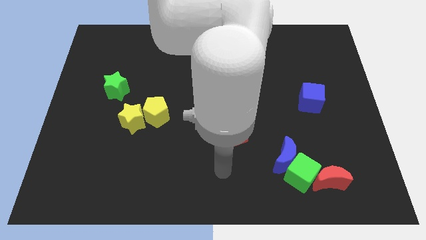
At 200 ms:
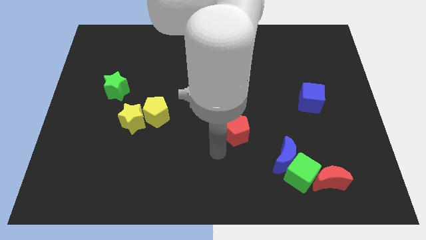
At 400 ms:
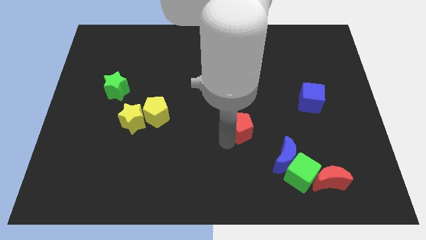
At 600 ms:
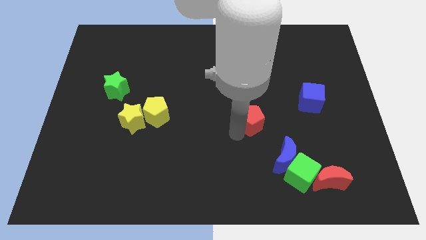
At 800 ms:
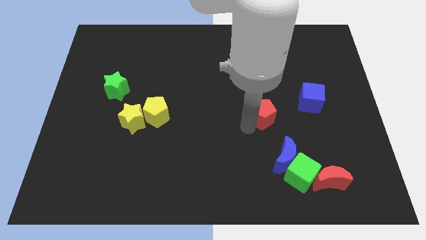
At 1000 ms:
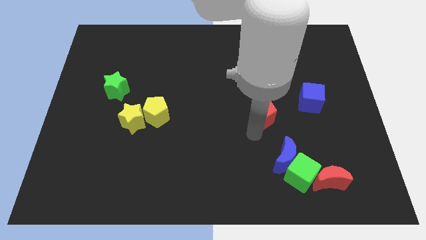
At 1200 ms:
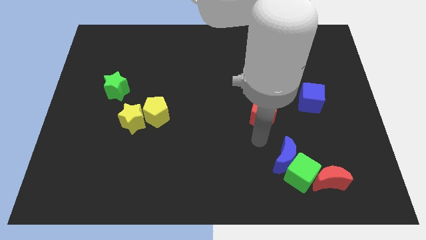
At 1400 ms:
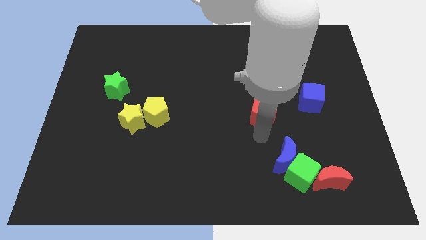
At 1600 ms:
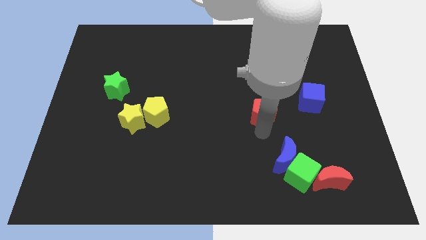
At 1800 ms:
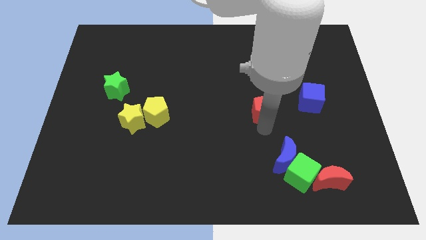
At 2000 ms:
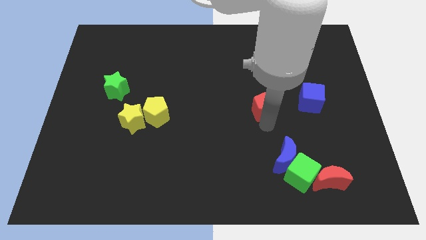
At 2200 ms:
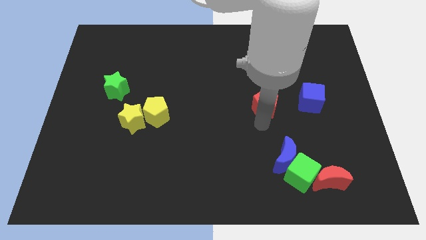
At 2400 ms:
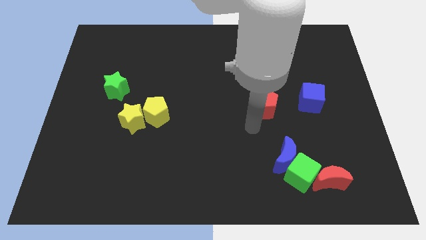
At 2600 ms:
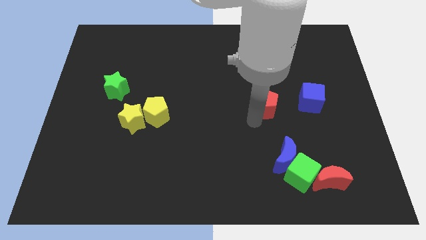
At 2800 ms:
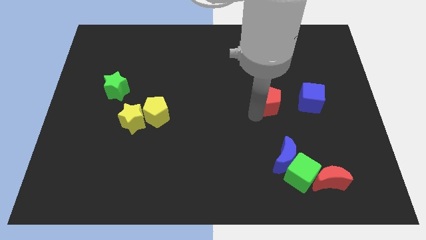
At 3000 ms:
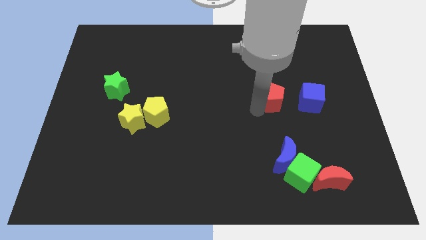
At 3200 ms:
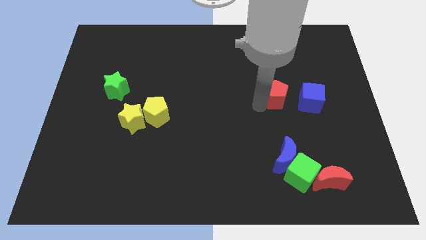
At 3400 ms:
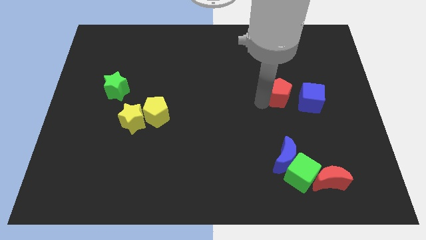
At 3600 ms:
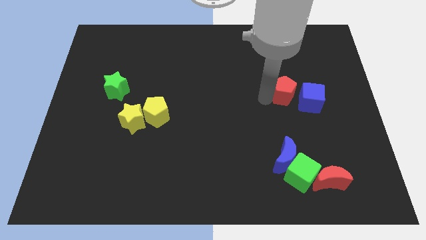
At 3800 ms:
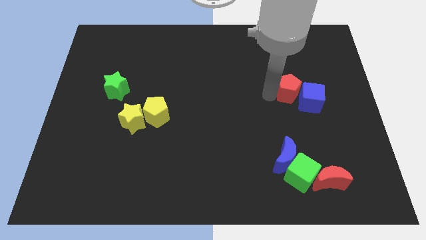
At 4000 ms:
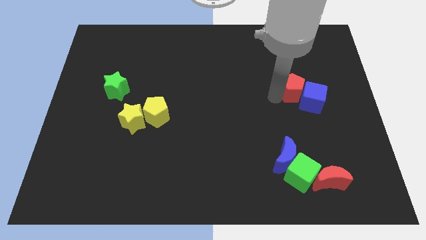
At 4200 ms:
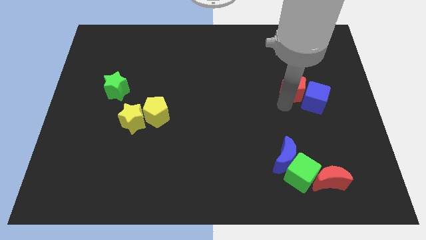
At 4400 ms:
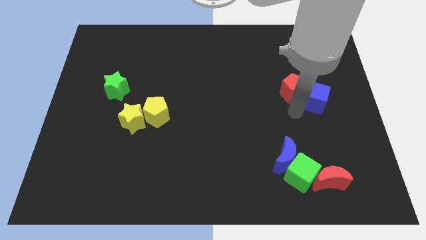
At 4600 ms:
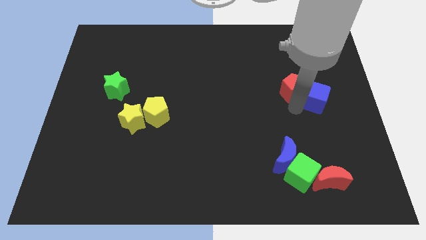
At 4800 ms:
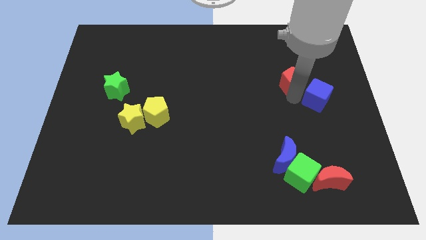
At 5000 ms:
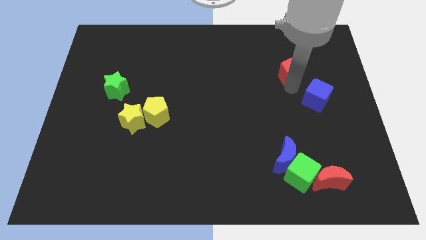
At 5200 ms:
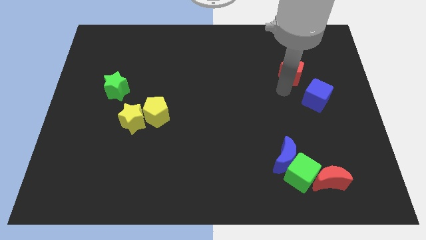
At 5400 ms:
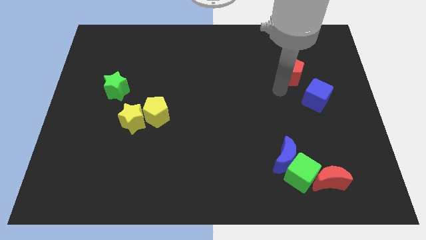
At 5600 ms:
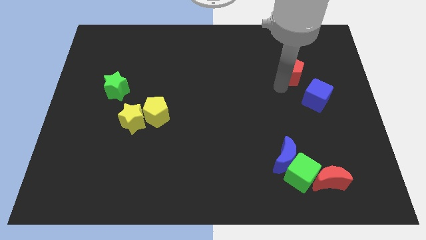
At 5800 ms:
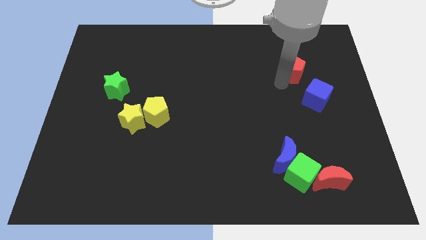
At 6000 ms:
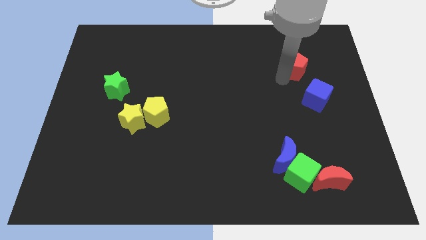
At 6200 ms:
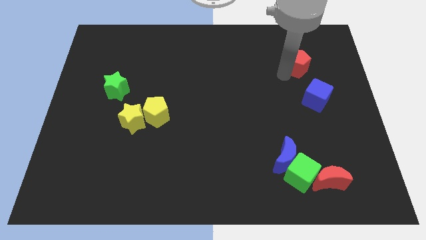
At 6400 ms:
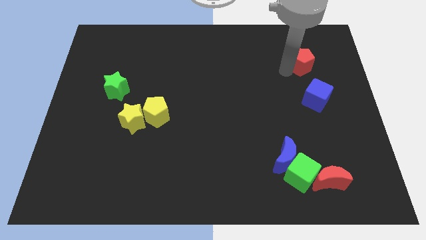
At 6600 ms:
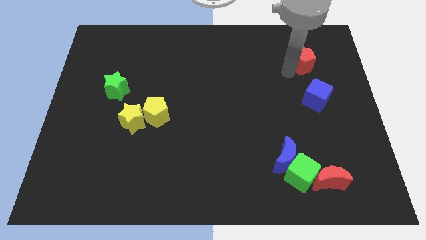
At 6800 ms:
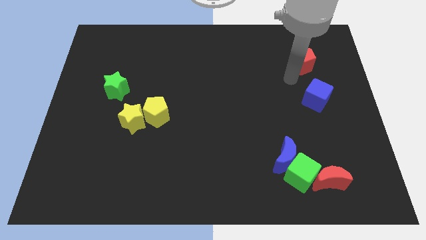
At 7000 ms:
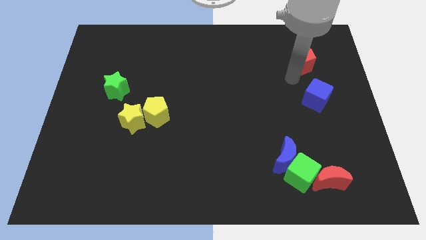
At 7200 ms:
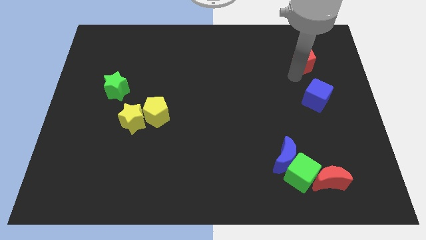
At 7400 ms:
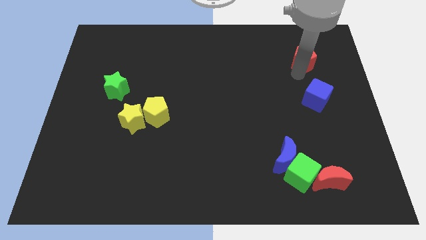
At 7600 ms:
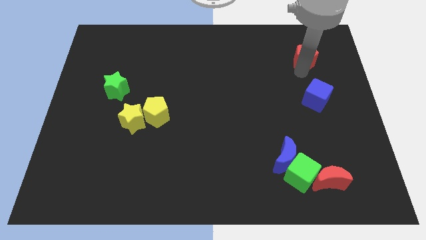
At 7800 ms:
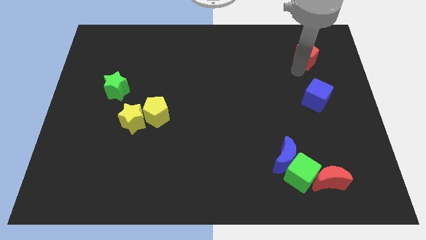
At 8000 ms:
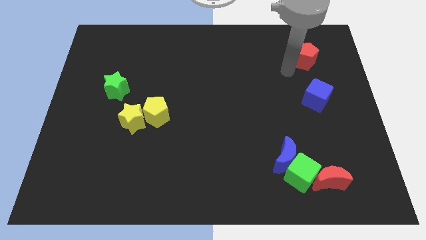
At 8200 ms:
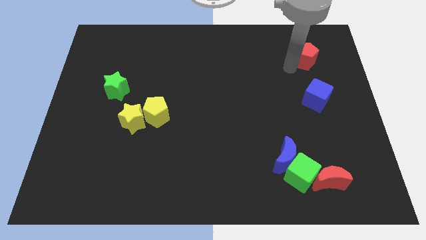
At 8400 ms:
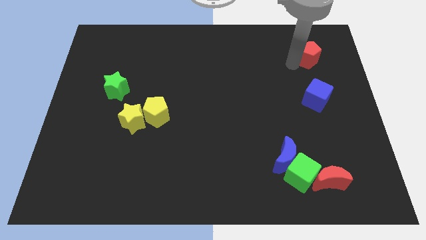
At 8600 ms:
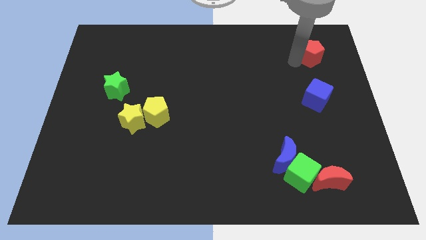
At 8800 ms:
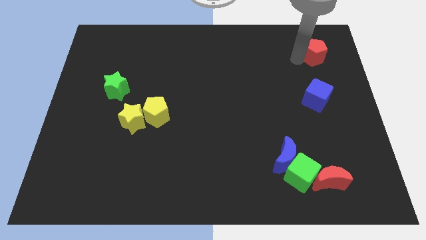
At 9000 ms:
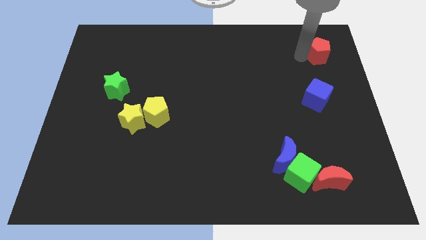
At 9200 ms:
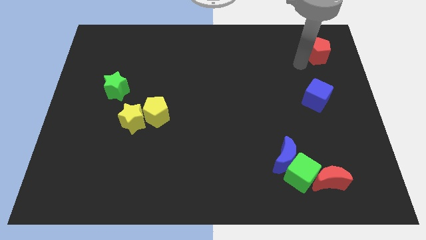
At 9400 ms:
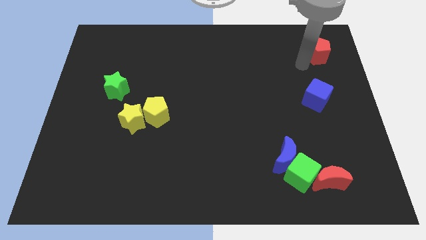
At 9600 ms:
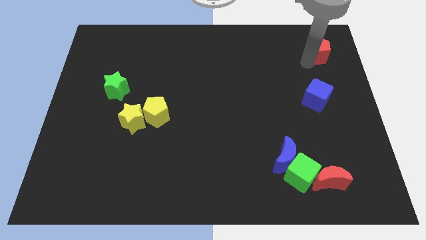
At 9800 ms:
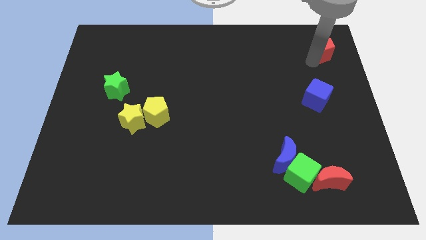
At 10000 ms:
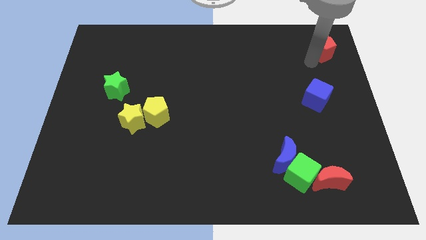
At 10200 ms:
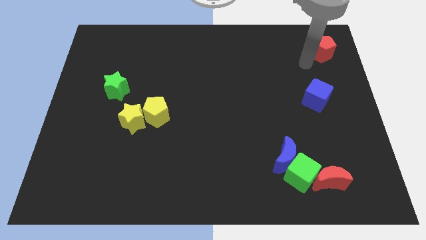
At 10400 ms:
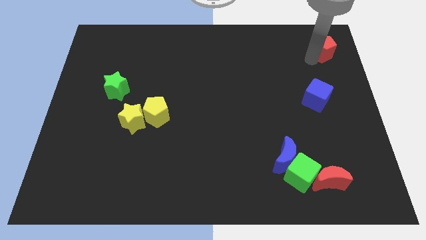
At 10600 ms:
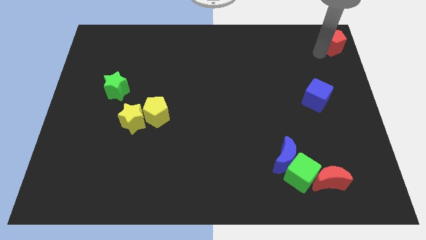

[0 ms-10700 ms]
slide the red pentagon to the top right corner

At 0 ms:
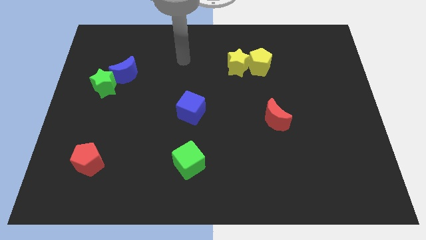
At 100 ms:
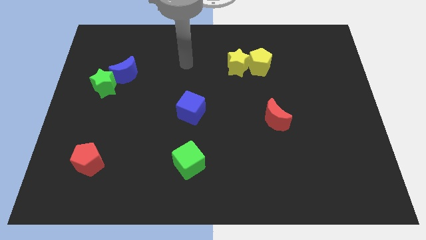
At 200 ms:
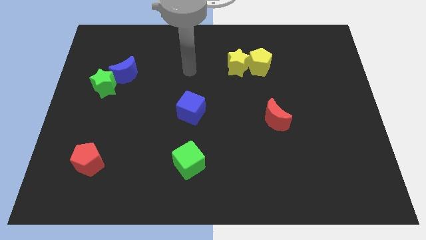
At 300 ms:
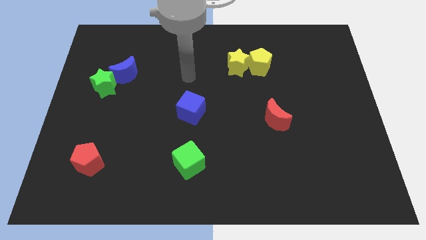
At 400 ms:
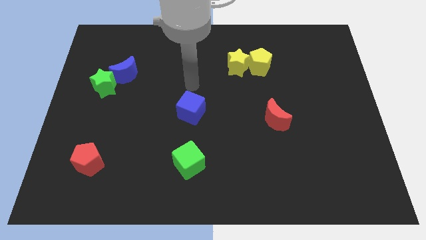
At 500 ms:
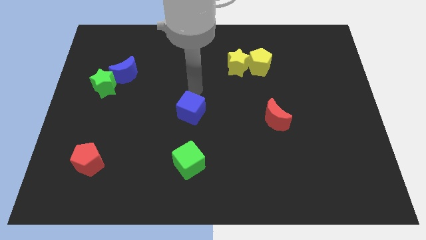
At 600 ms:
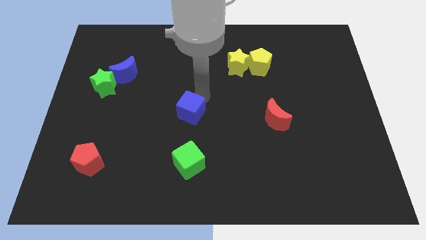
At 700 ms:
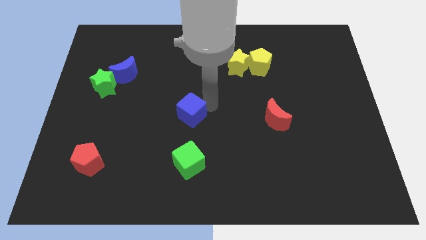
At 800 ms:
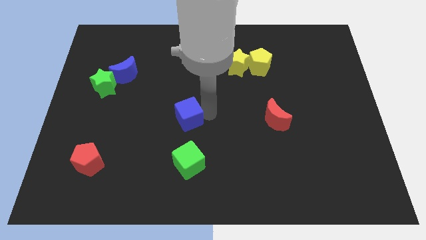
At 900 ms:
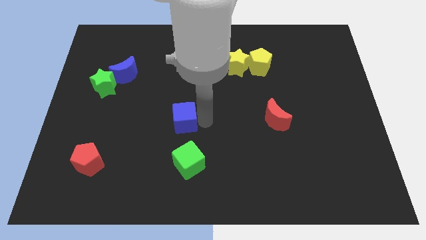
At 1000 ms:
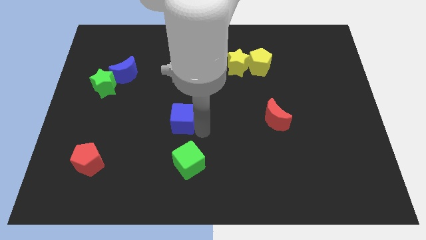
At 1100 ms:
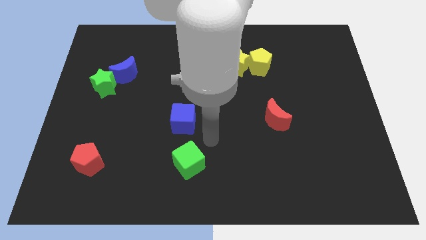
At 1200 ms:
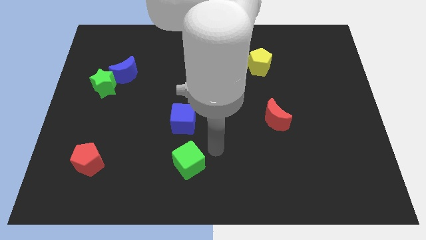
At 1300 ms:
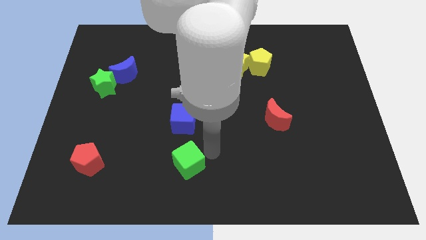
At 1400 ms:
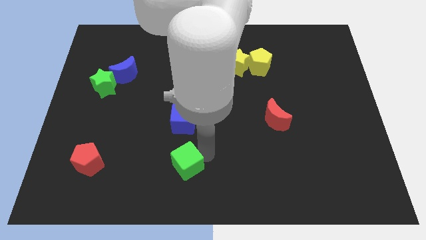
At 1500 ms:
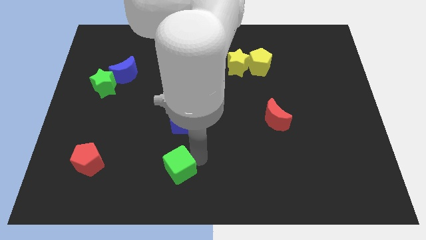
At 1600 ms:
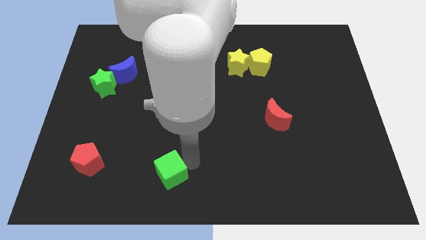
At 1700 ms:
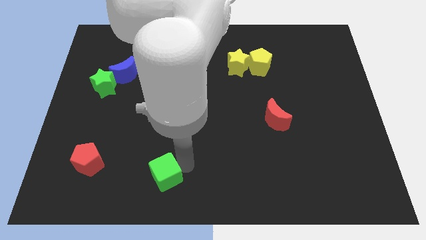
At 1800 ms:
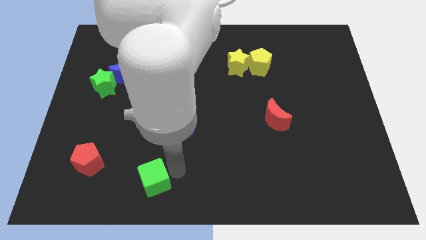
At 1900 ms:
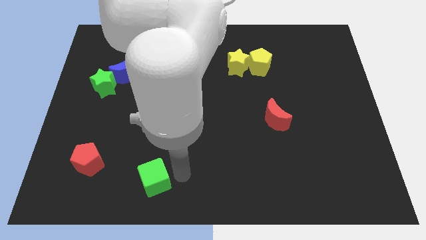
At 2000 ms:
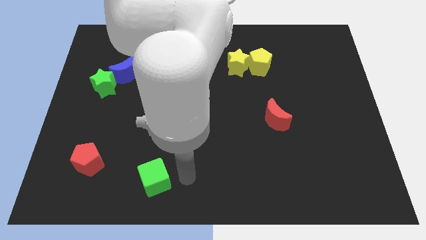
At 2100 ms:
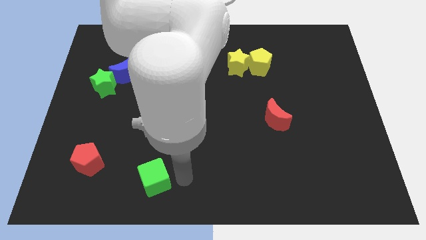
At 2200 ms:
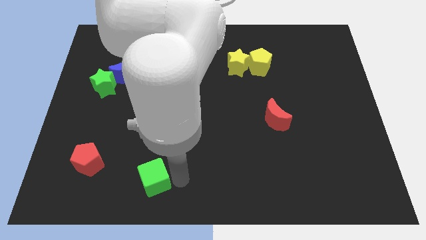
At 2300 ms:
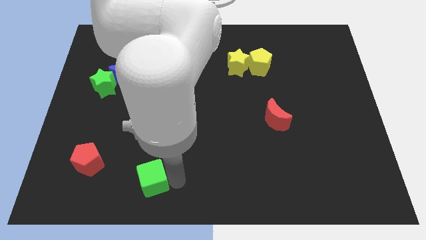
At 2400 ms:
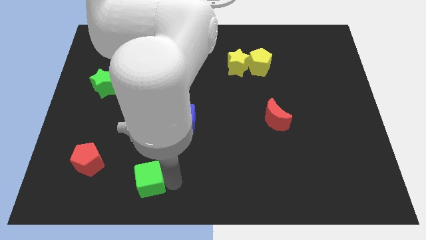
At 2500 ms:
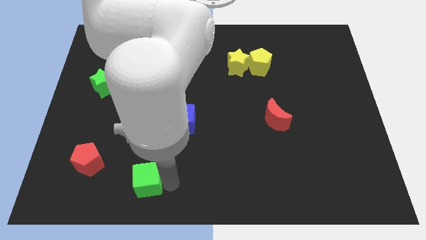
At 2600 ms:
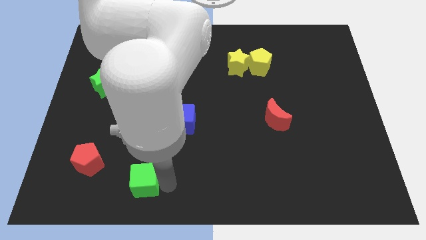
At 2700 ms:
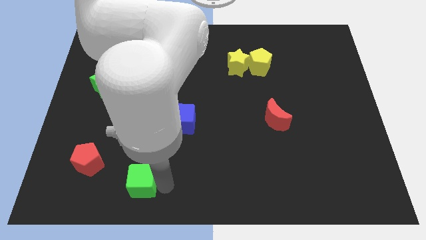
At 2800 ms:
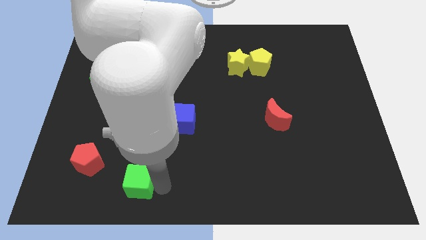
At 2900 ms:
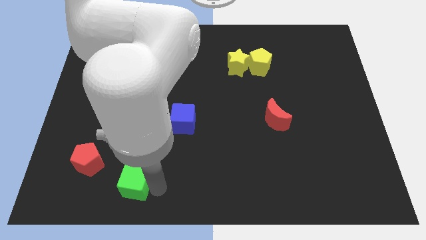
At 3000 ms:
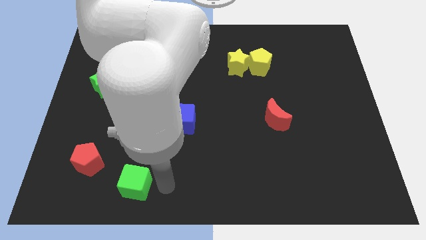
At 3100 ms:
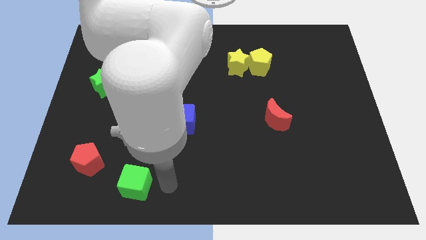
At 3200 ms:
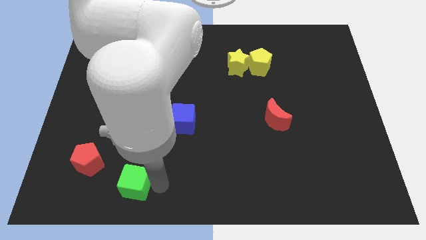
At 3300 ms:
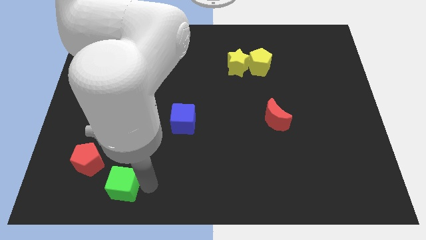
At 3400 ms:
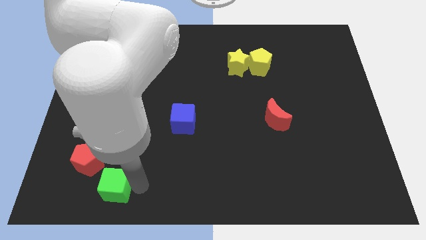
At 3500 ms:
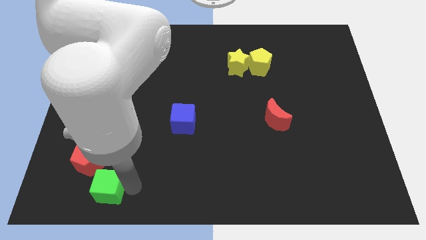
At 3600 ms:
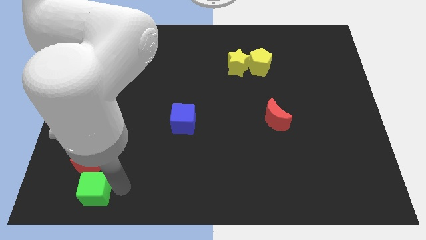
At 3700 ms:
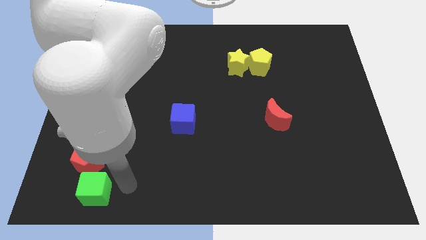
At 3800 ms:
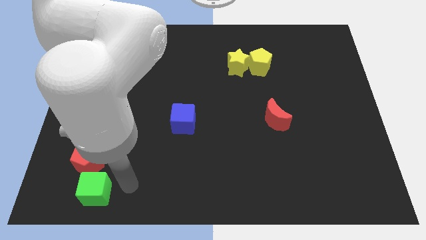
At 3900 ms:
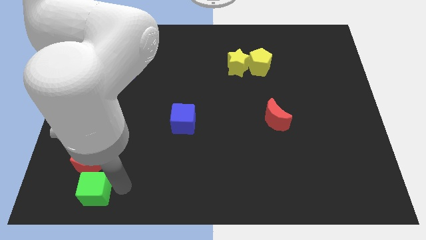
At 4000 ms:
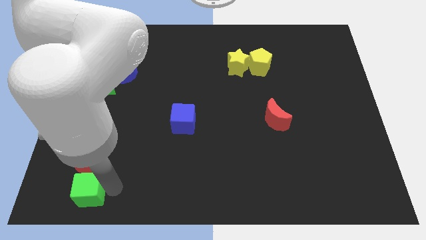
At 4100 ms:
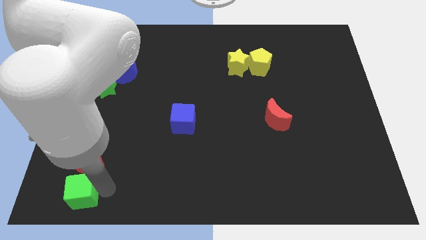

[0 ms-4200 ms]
push the green cube to the bottom left
